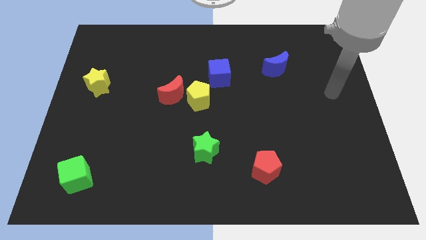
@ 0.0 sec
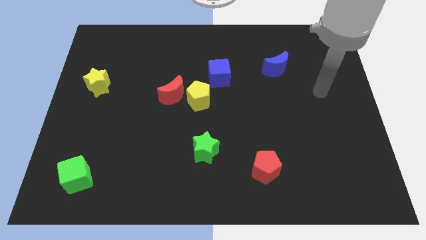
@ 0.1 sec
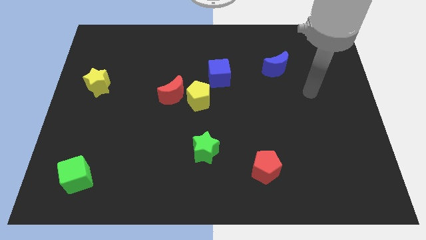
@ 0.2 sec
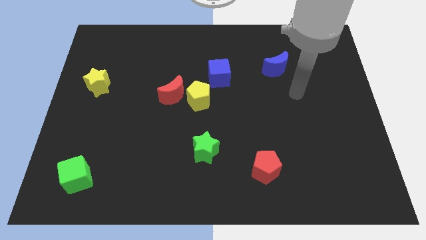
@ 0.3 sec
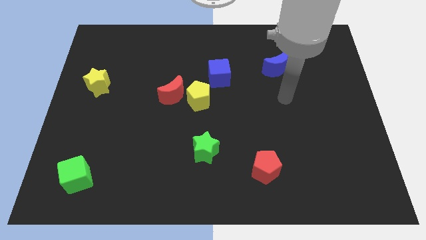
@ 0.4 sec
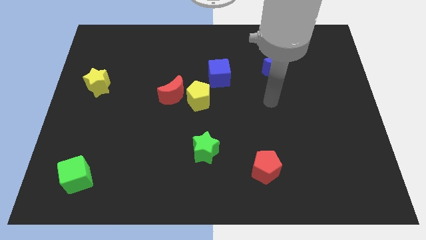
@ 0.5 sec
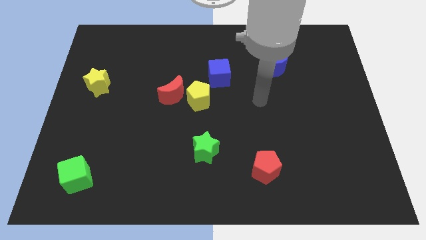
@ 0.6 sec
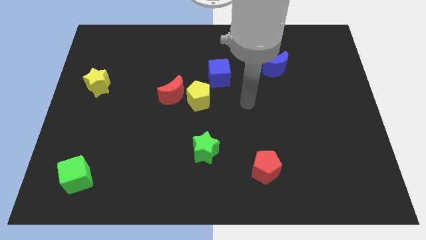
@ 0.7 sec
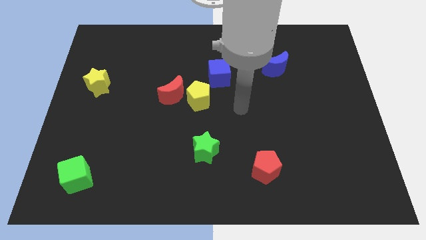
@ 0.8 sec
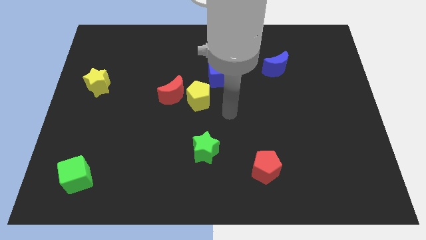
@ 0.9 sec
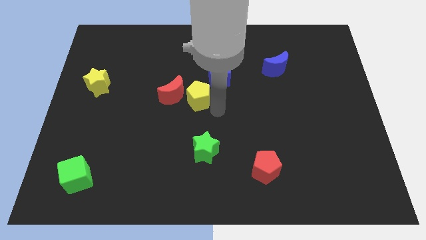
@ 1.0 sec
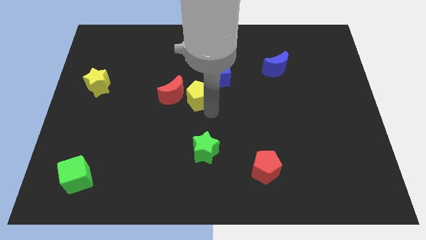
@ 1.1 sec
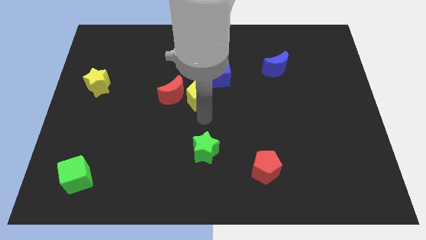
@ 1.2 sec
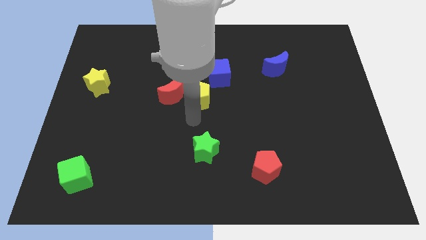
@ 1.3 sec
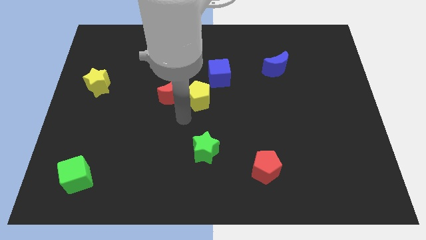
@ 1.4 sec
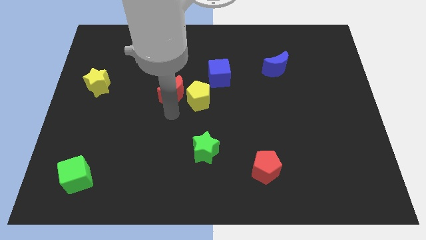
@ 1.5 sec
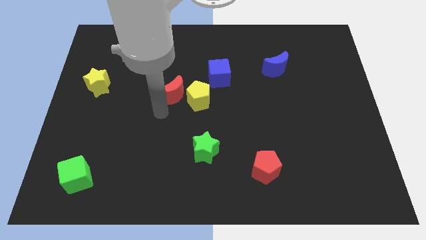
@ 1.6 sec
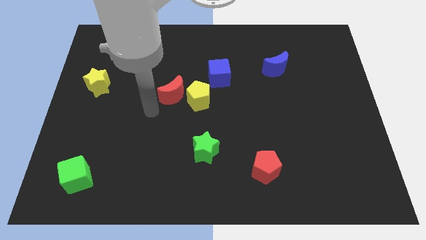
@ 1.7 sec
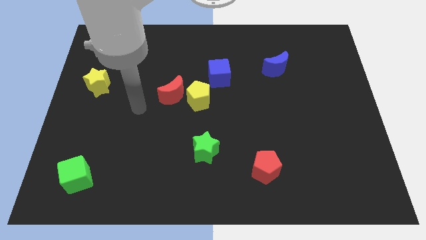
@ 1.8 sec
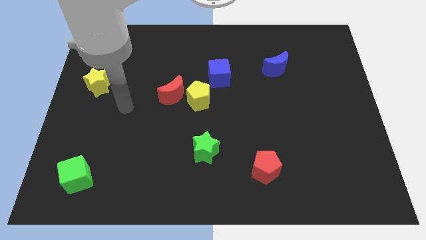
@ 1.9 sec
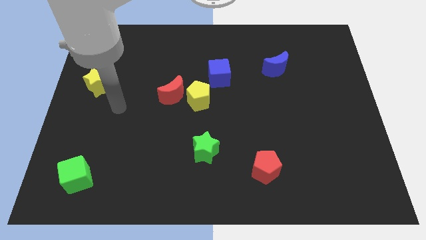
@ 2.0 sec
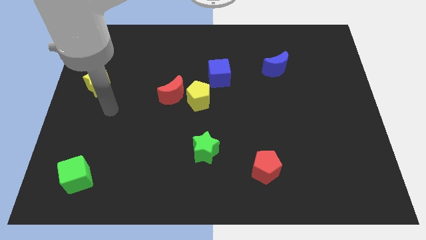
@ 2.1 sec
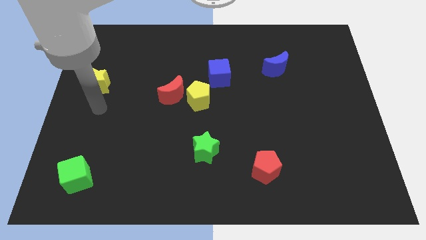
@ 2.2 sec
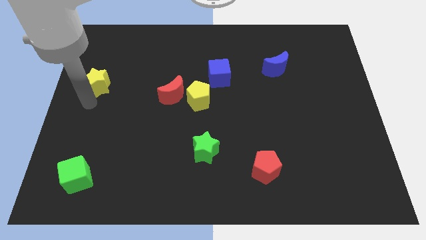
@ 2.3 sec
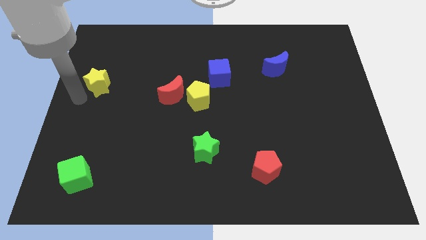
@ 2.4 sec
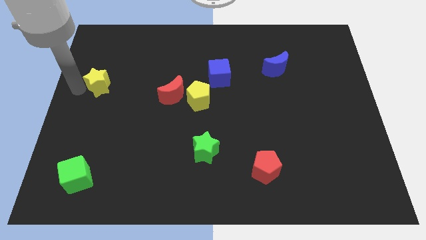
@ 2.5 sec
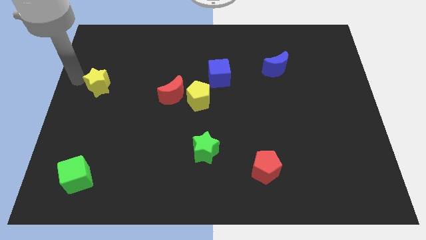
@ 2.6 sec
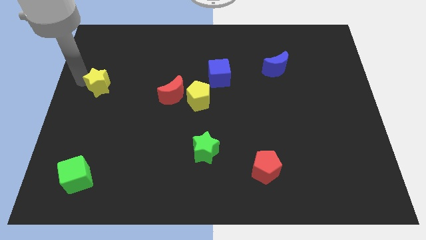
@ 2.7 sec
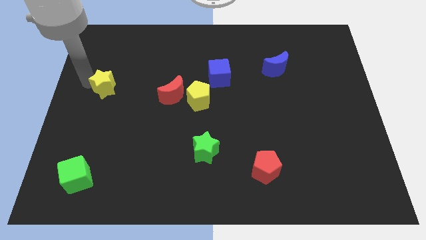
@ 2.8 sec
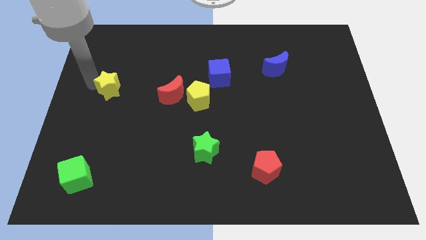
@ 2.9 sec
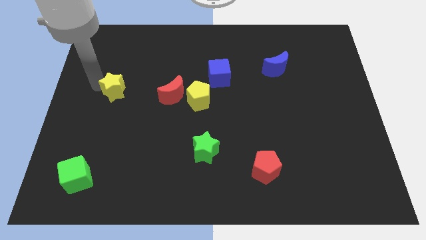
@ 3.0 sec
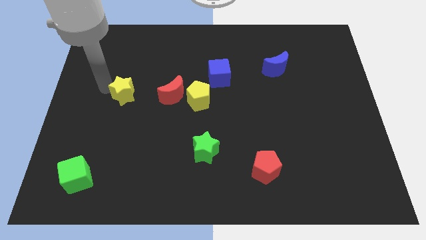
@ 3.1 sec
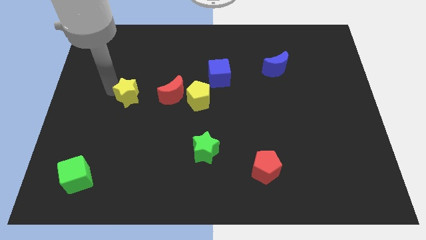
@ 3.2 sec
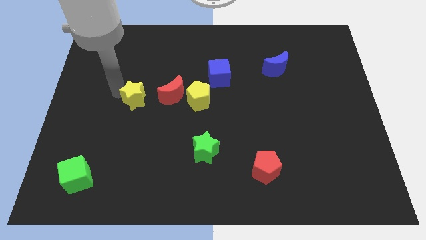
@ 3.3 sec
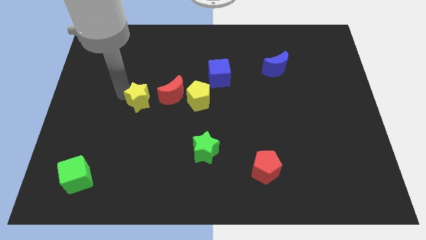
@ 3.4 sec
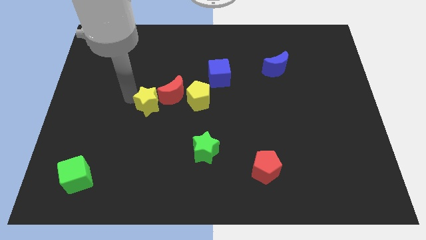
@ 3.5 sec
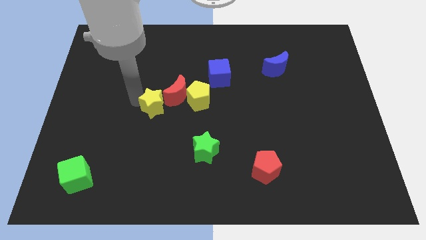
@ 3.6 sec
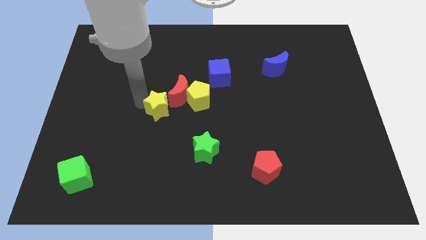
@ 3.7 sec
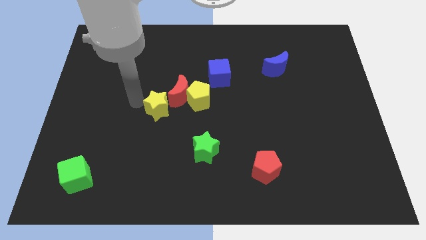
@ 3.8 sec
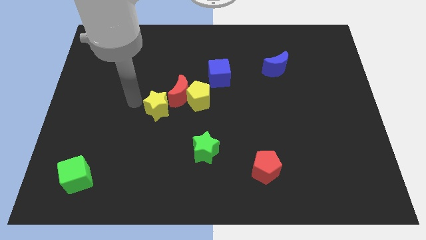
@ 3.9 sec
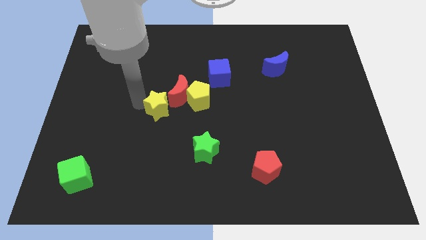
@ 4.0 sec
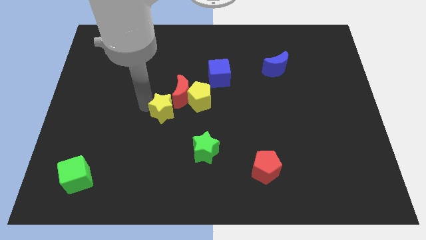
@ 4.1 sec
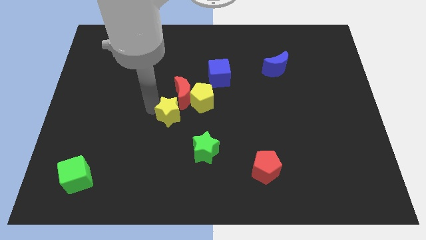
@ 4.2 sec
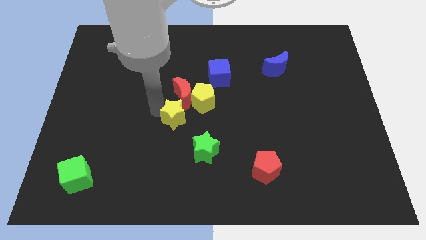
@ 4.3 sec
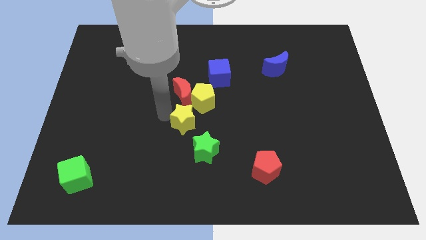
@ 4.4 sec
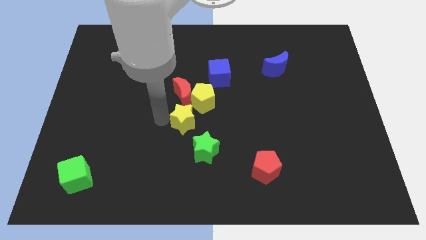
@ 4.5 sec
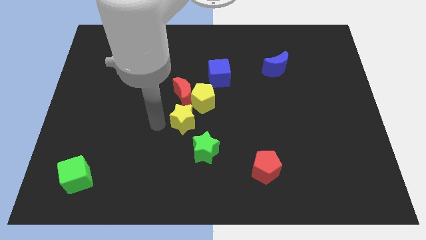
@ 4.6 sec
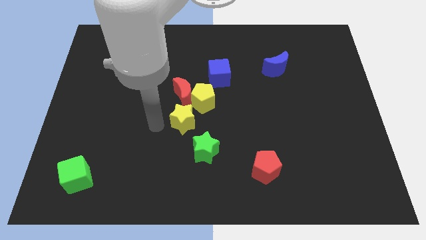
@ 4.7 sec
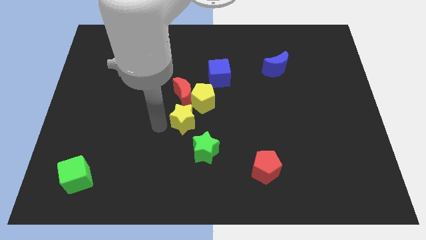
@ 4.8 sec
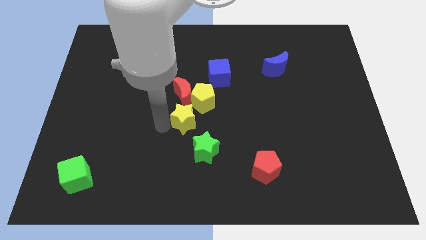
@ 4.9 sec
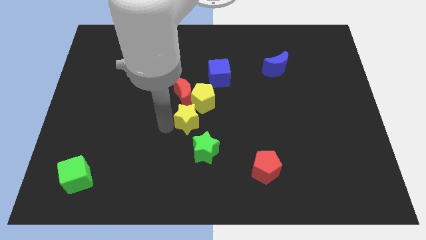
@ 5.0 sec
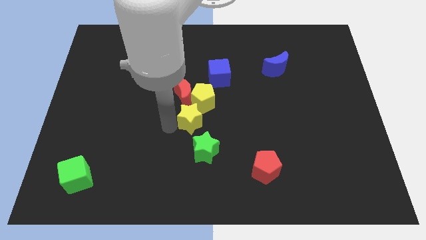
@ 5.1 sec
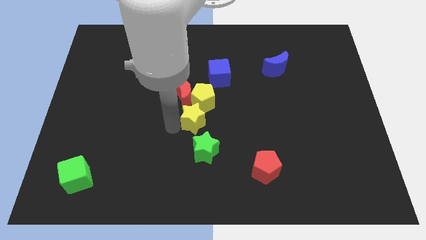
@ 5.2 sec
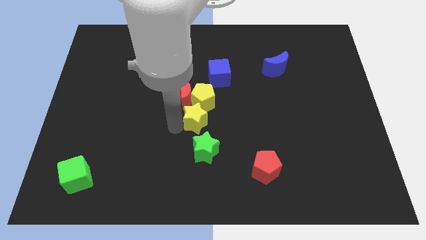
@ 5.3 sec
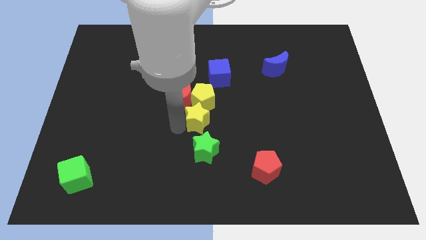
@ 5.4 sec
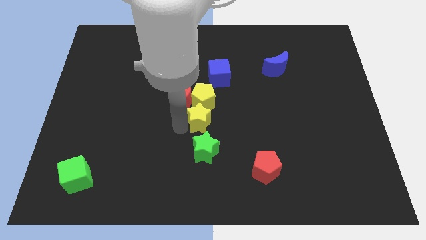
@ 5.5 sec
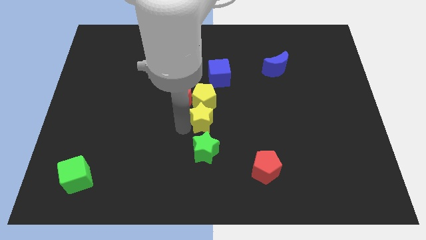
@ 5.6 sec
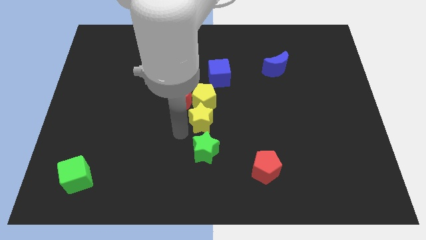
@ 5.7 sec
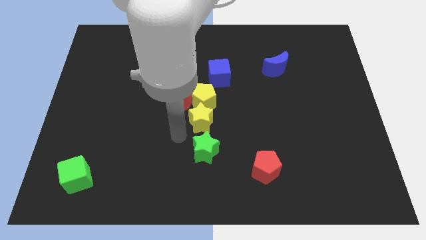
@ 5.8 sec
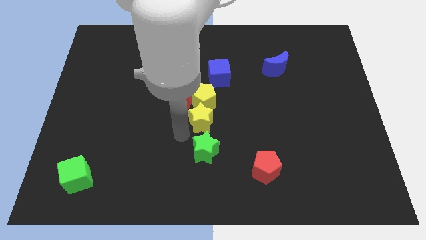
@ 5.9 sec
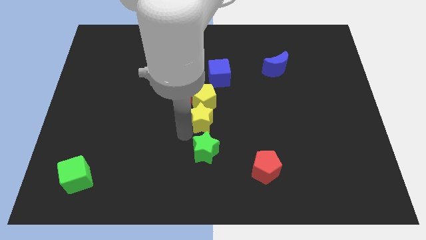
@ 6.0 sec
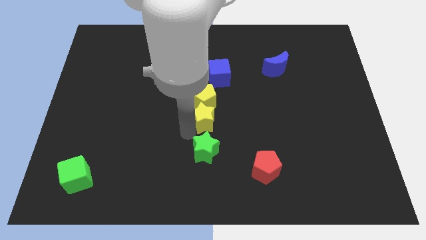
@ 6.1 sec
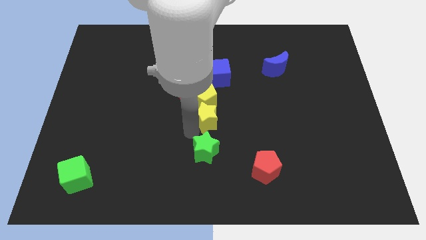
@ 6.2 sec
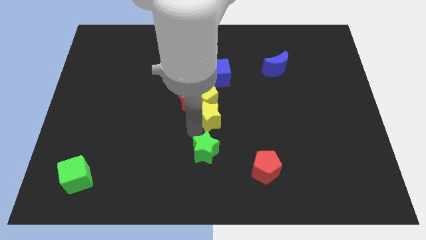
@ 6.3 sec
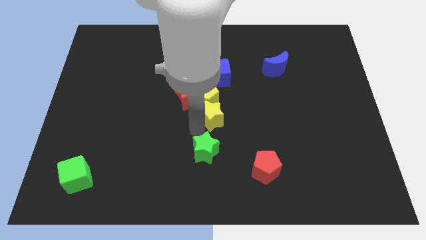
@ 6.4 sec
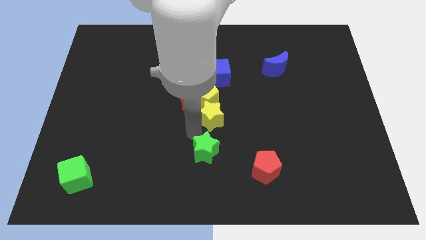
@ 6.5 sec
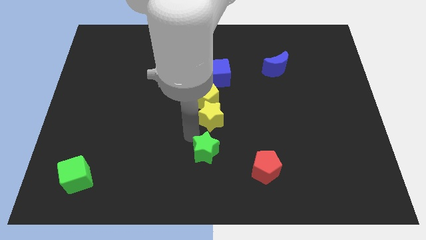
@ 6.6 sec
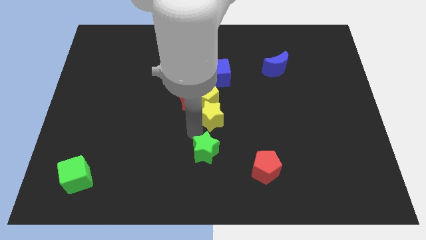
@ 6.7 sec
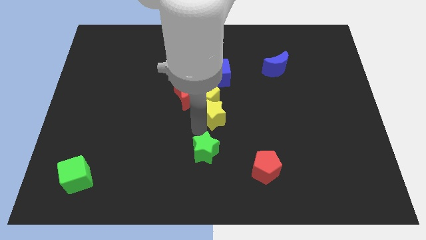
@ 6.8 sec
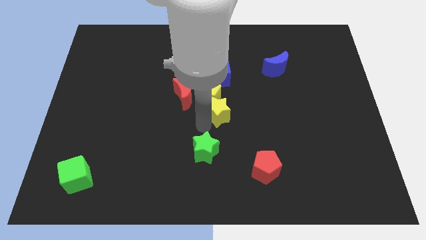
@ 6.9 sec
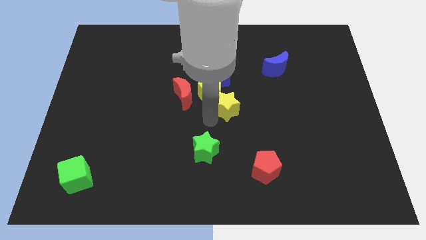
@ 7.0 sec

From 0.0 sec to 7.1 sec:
put the yellow star to the right of the yellow pentagon
